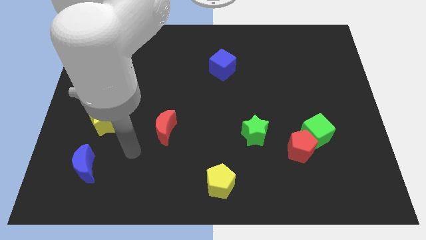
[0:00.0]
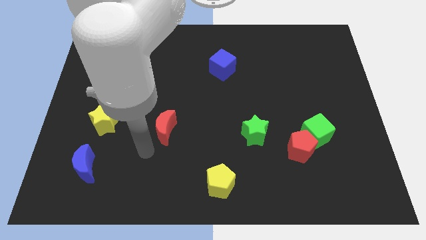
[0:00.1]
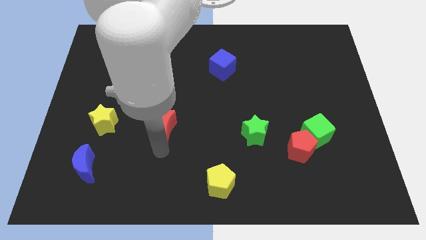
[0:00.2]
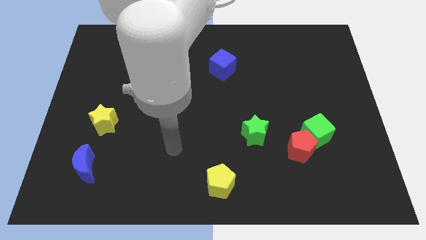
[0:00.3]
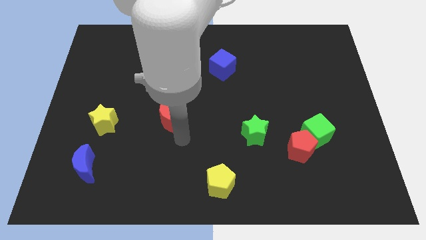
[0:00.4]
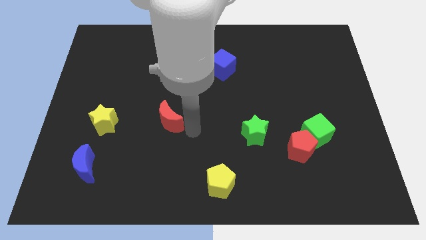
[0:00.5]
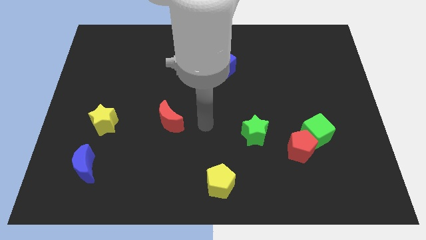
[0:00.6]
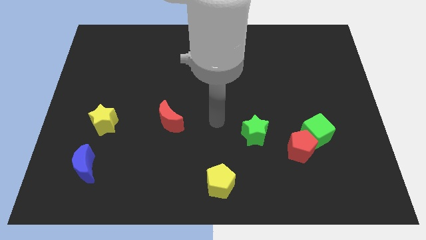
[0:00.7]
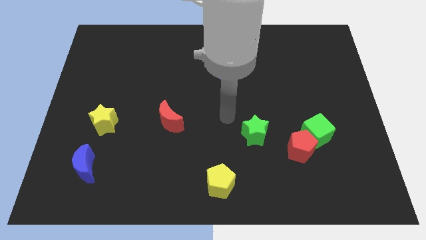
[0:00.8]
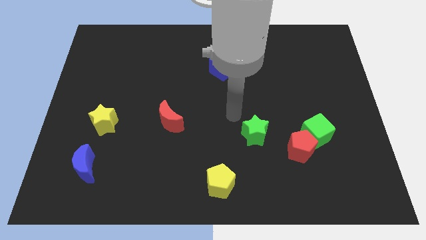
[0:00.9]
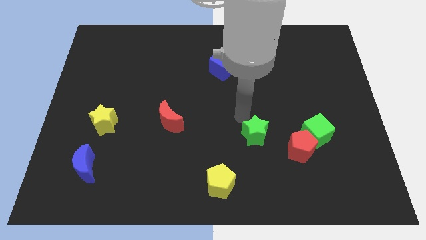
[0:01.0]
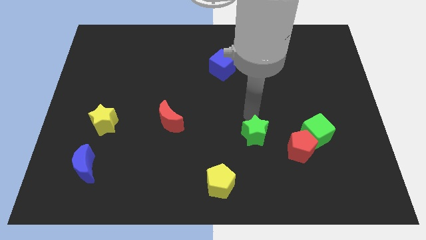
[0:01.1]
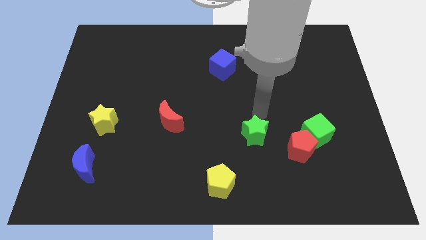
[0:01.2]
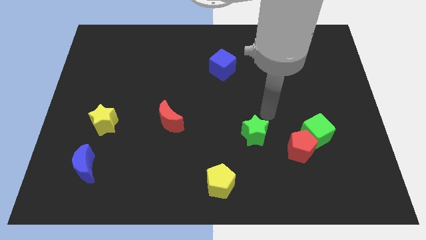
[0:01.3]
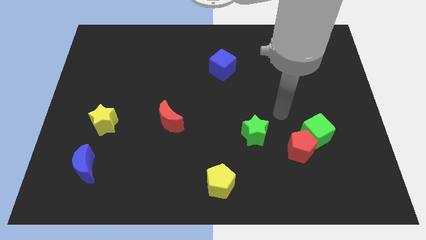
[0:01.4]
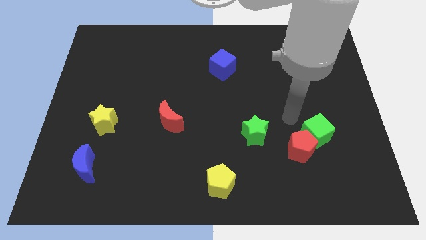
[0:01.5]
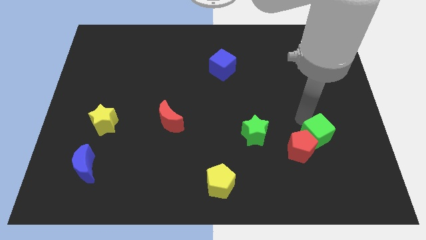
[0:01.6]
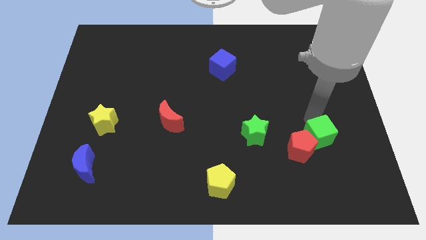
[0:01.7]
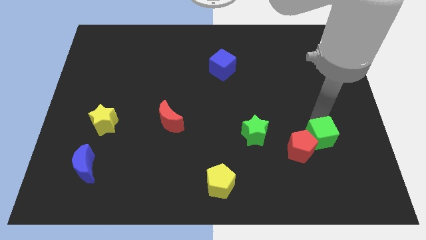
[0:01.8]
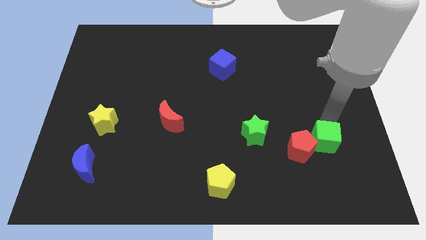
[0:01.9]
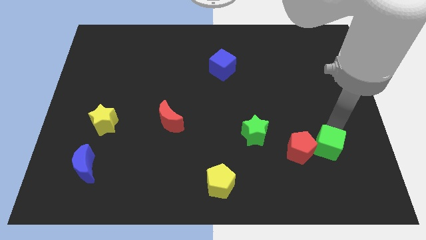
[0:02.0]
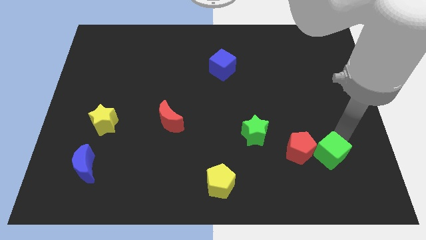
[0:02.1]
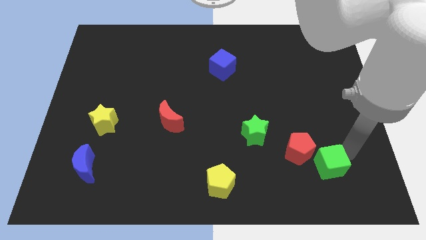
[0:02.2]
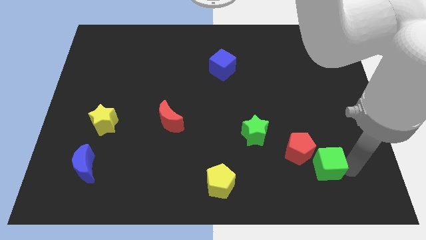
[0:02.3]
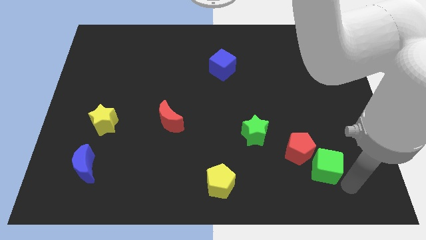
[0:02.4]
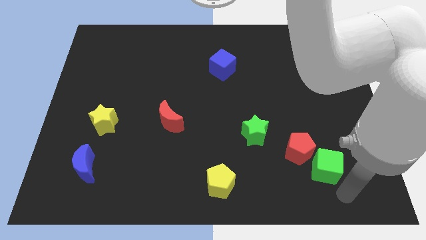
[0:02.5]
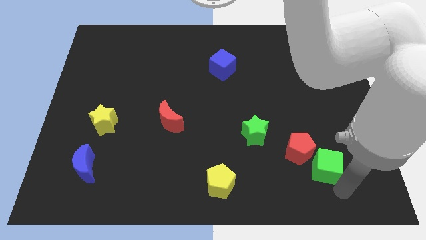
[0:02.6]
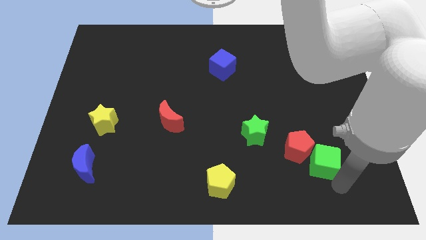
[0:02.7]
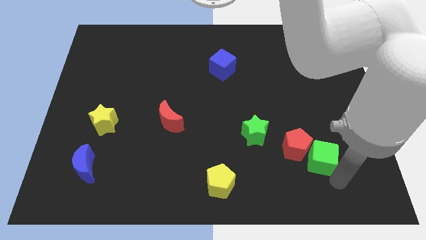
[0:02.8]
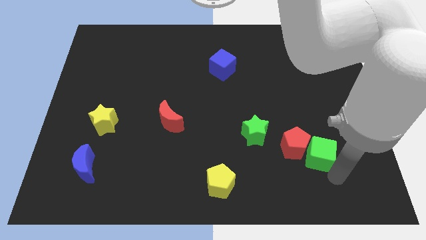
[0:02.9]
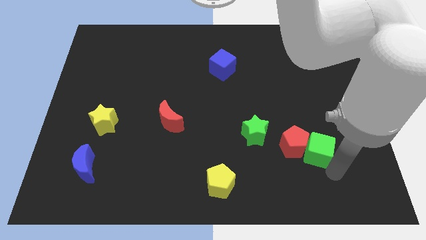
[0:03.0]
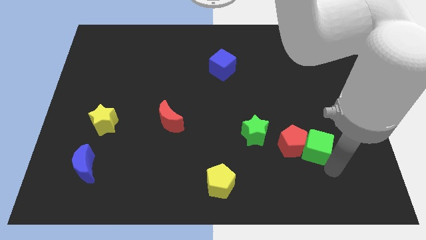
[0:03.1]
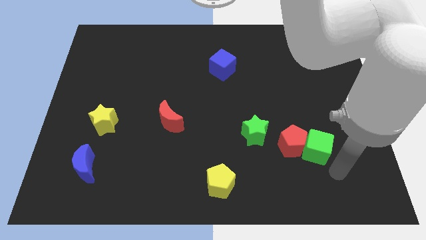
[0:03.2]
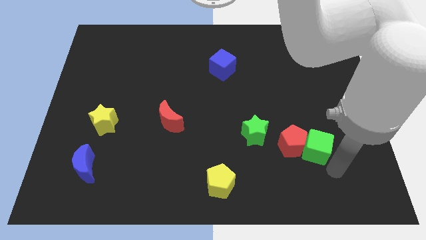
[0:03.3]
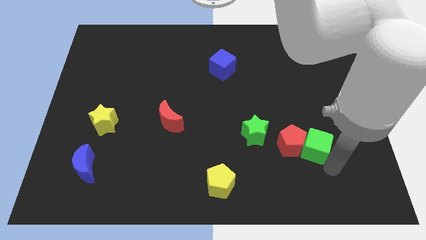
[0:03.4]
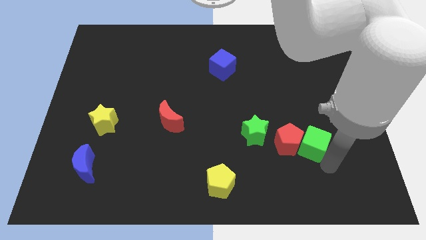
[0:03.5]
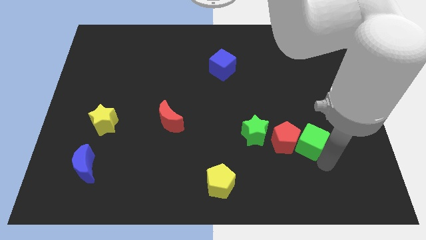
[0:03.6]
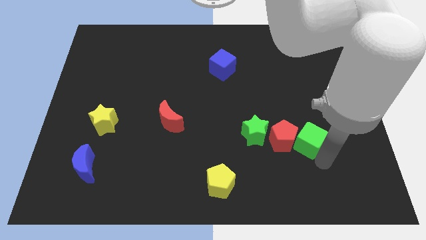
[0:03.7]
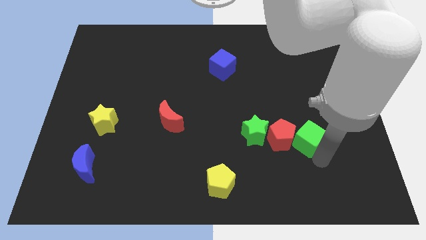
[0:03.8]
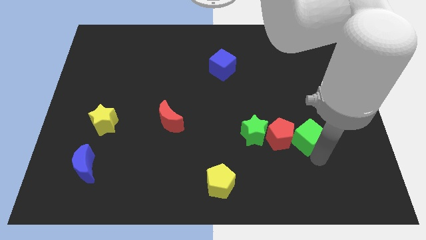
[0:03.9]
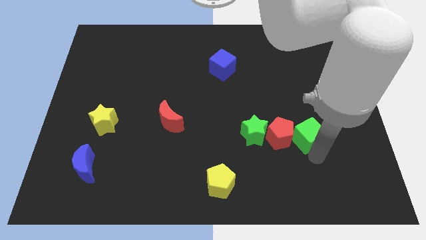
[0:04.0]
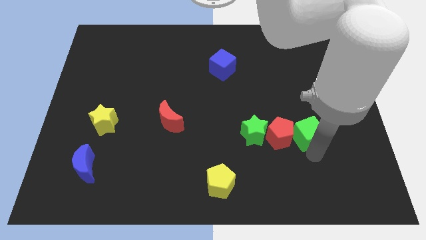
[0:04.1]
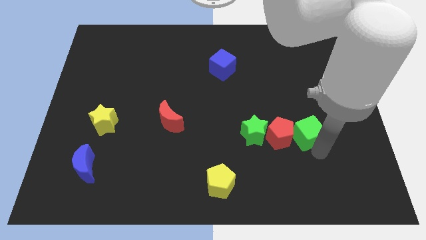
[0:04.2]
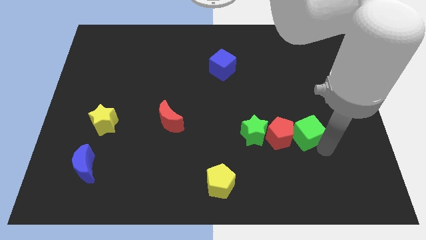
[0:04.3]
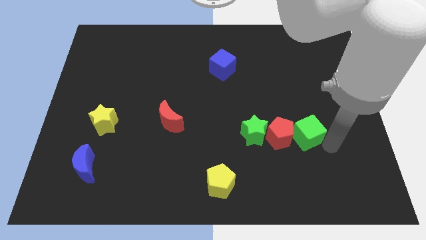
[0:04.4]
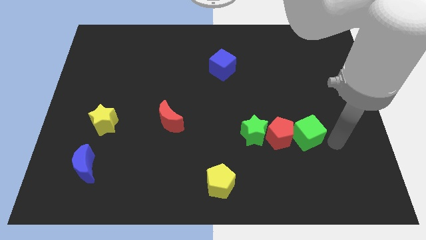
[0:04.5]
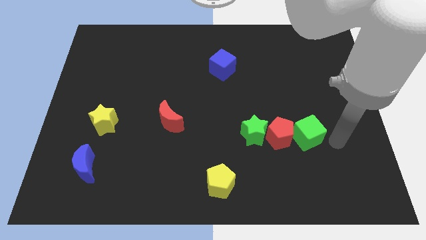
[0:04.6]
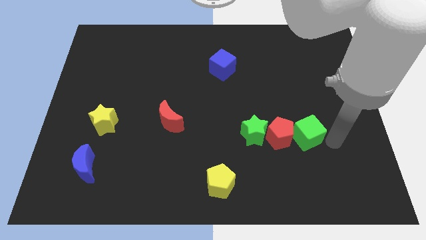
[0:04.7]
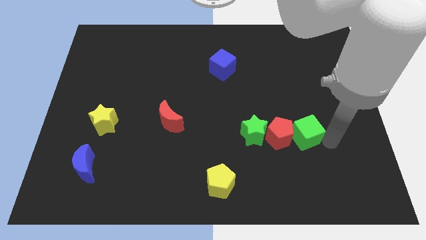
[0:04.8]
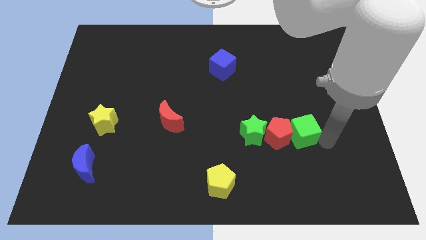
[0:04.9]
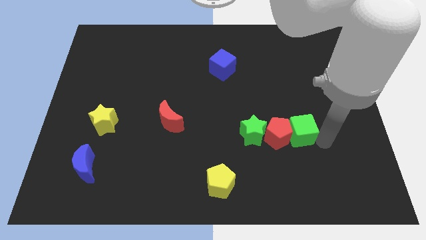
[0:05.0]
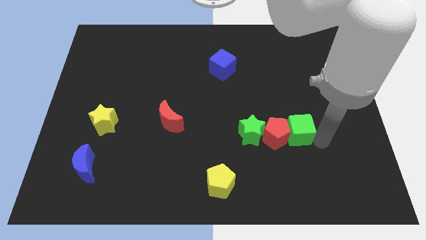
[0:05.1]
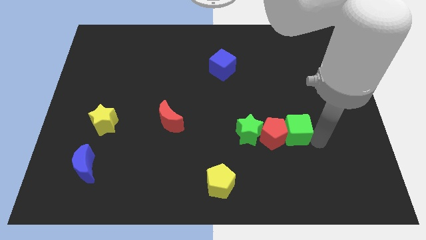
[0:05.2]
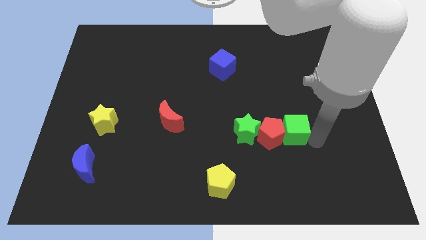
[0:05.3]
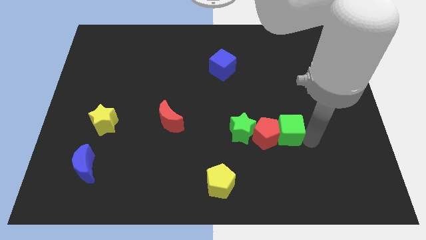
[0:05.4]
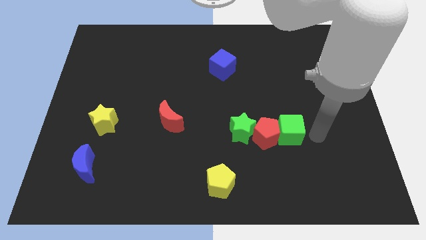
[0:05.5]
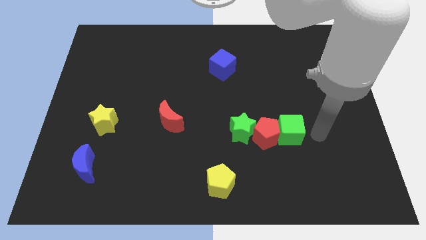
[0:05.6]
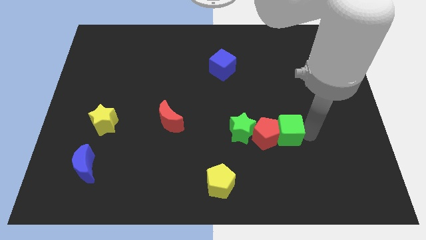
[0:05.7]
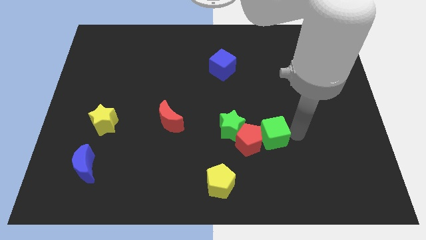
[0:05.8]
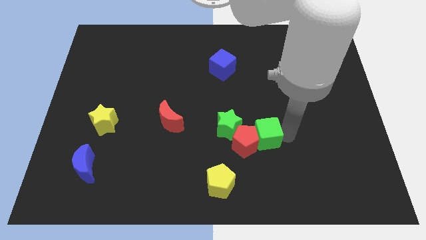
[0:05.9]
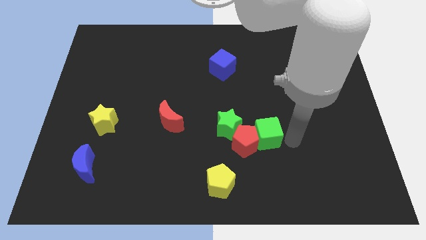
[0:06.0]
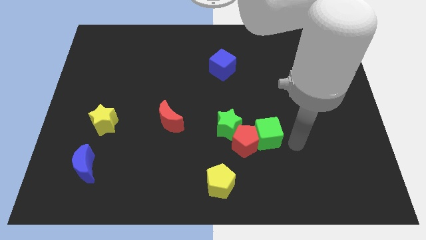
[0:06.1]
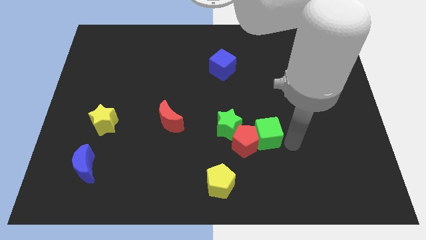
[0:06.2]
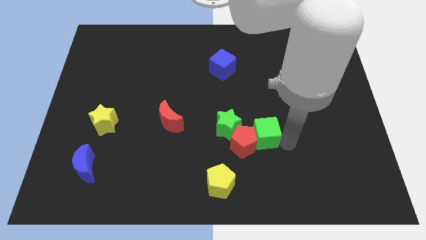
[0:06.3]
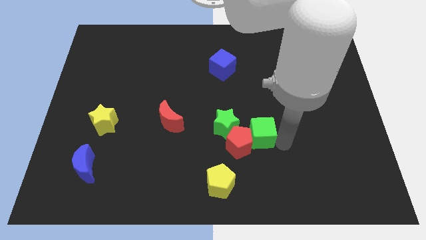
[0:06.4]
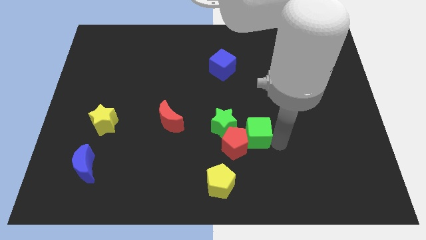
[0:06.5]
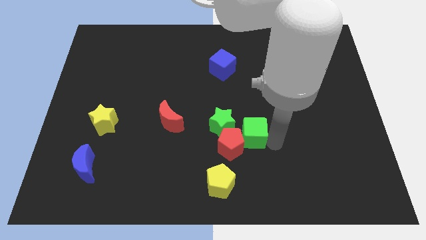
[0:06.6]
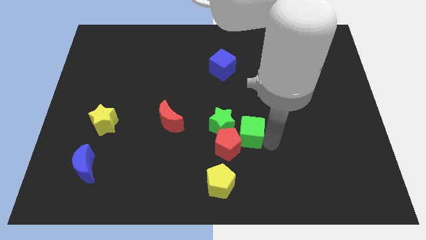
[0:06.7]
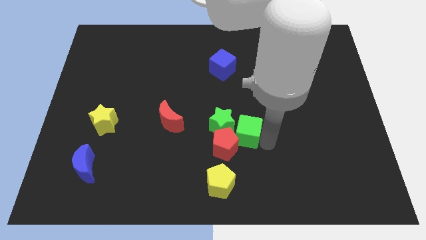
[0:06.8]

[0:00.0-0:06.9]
slide the green cube close to the green star
